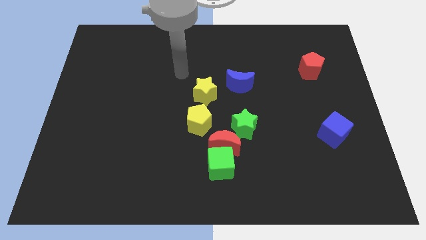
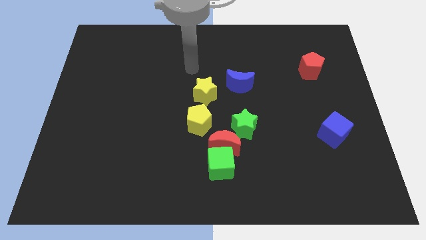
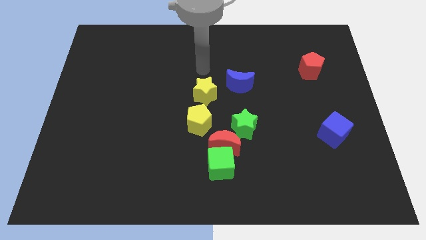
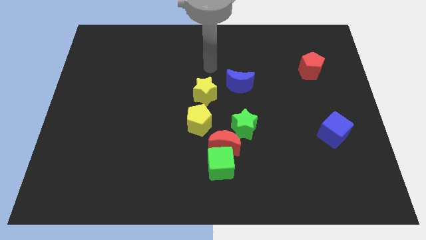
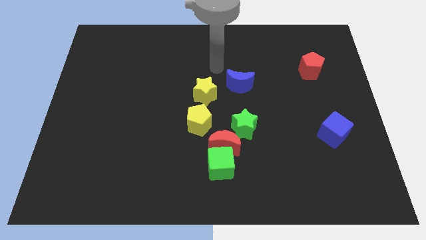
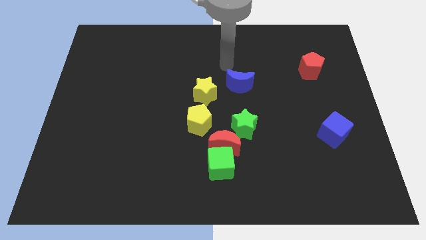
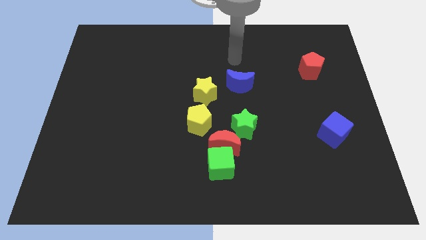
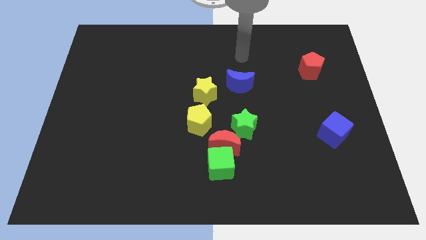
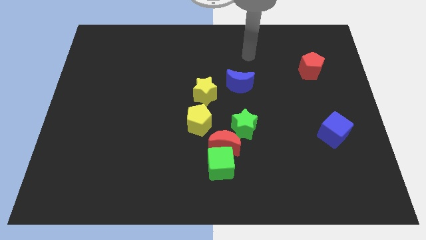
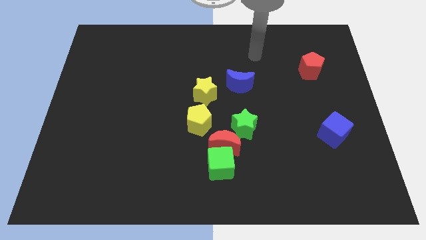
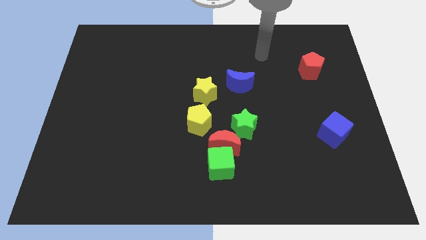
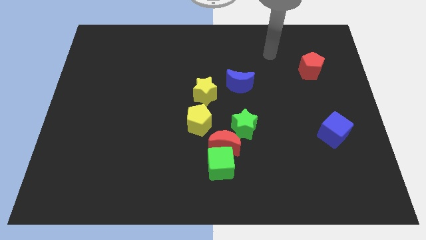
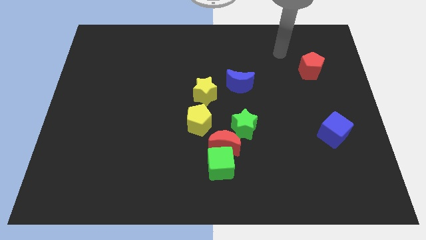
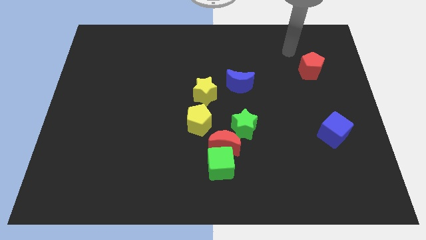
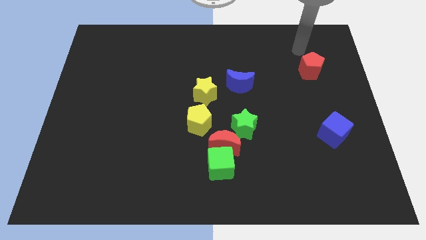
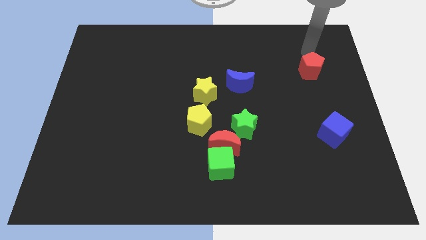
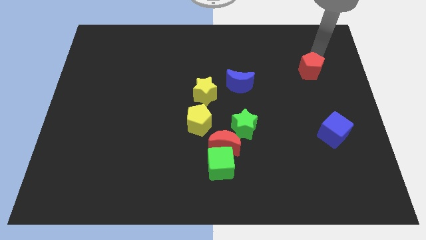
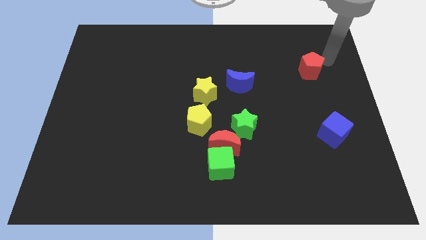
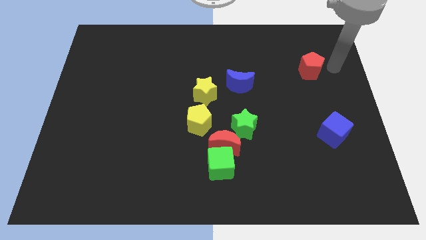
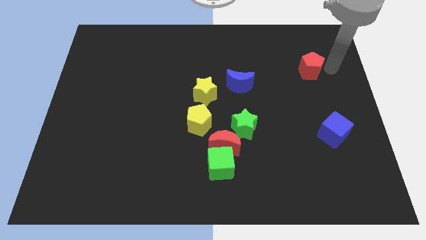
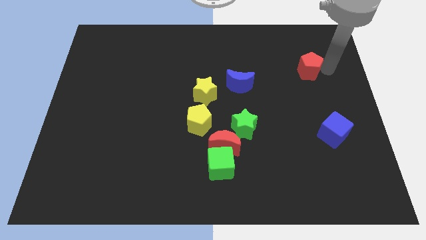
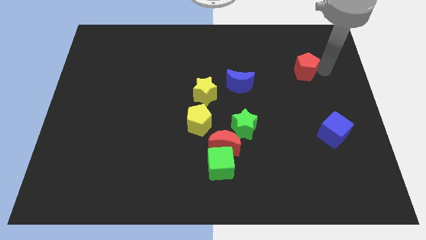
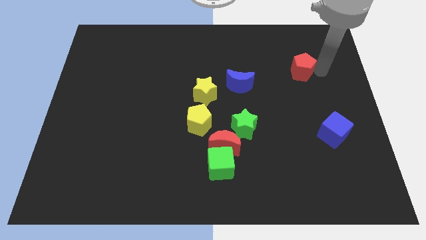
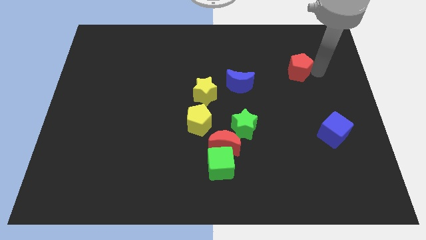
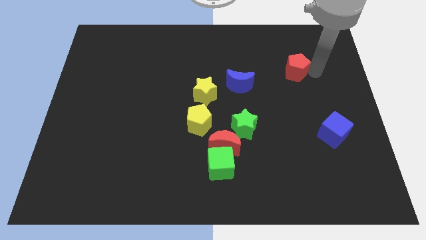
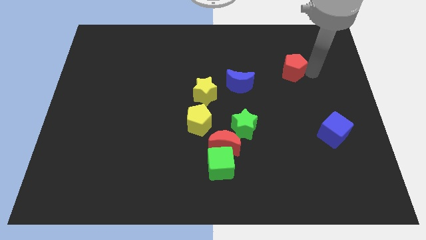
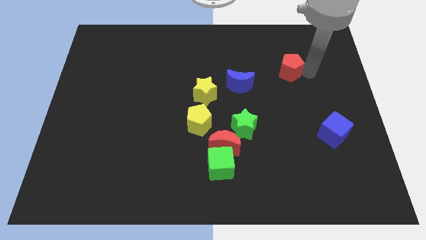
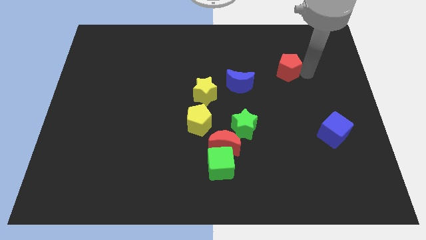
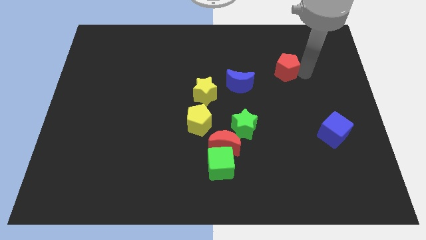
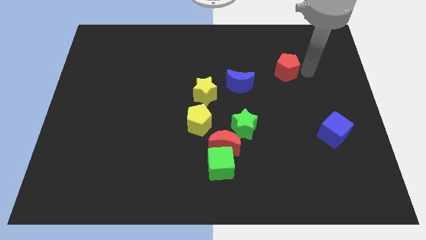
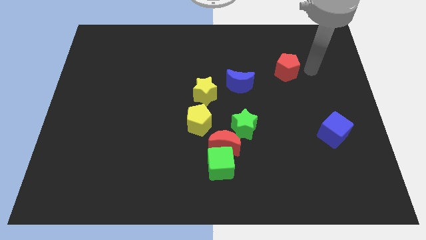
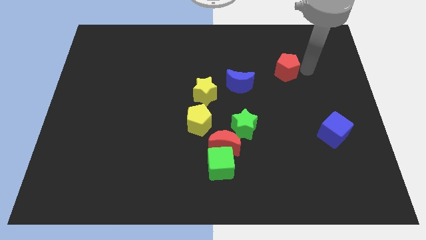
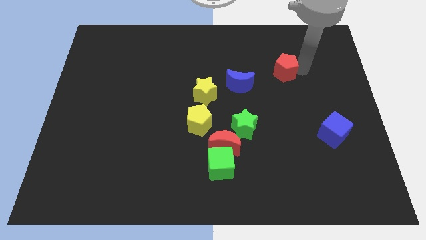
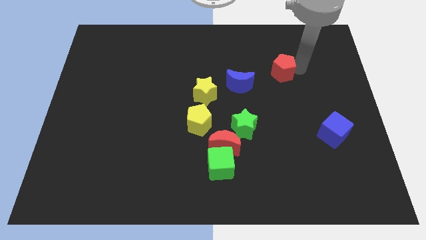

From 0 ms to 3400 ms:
slightly move the red pentagon left

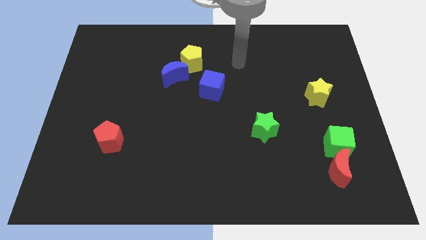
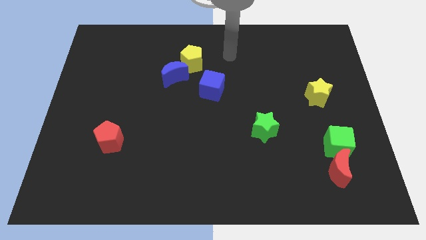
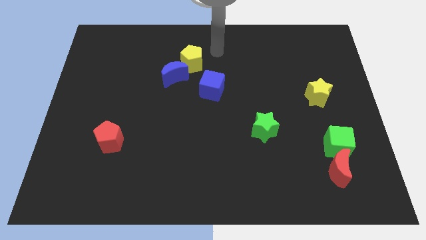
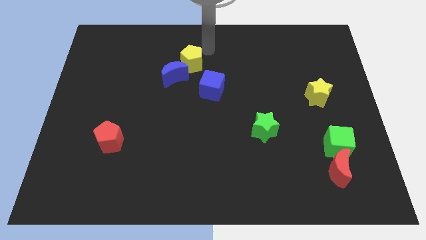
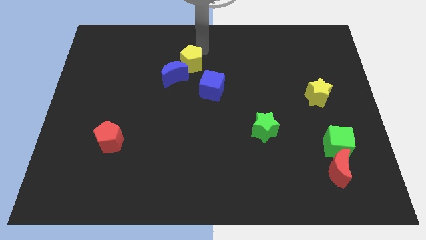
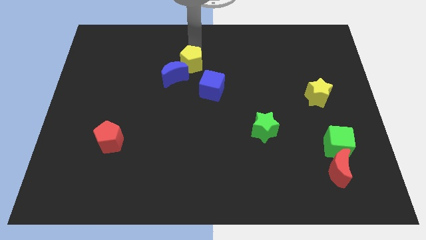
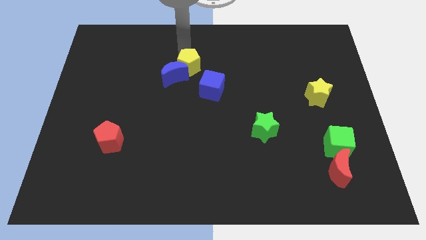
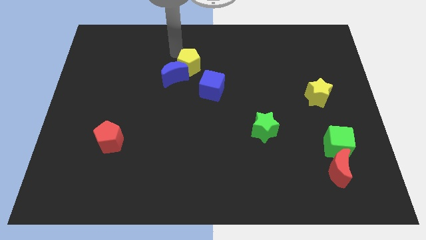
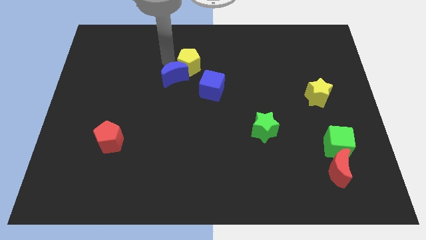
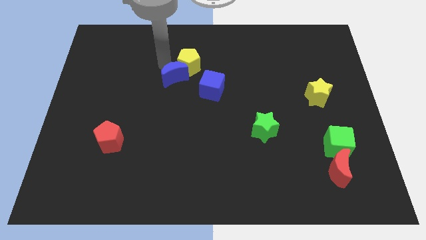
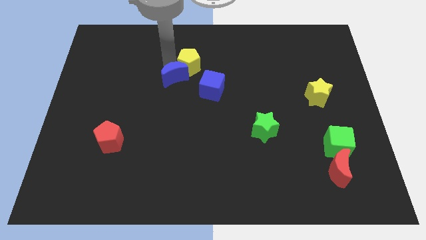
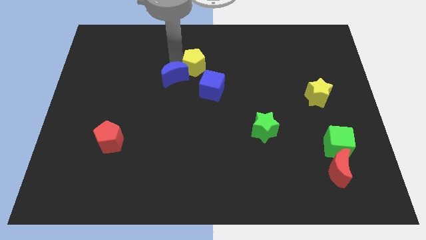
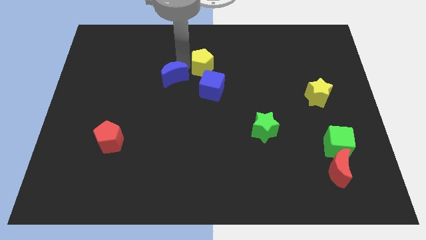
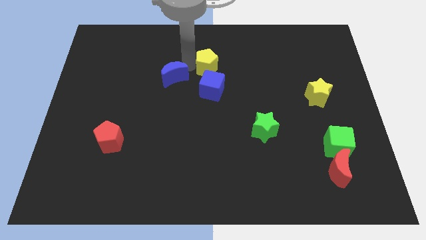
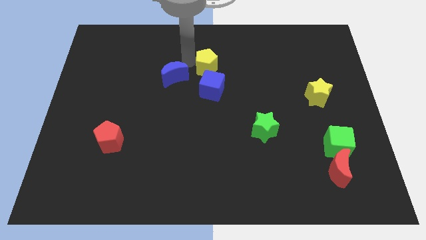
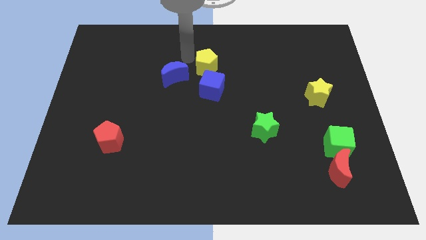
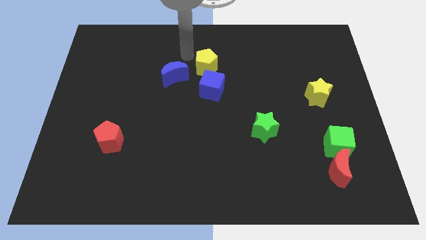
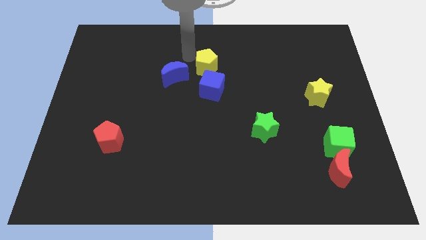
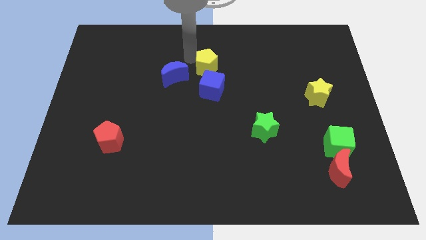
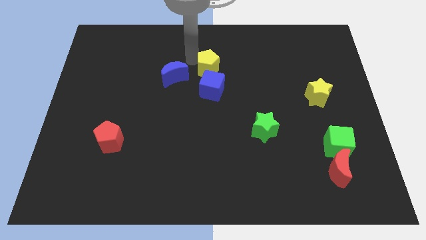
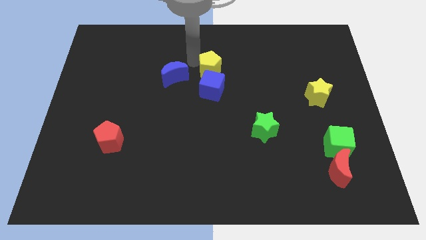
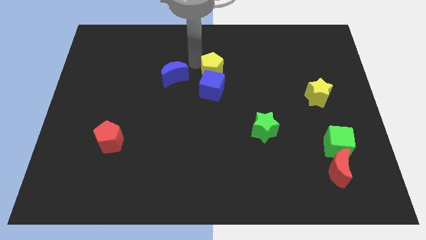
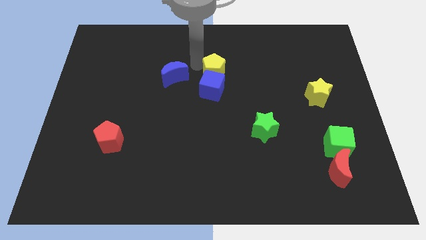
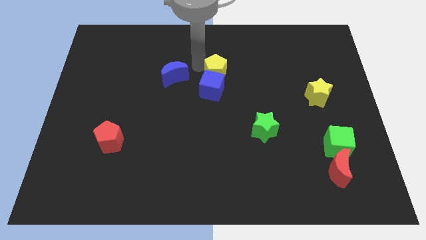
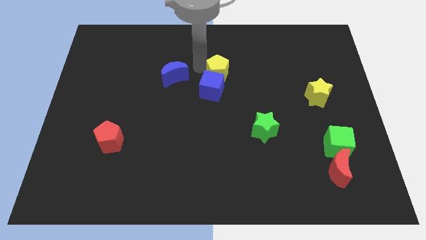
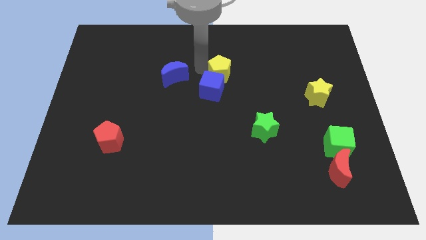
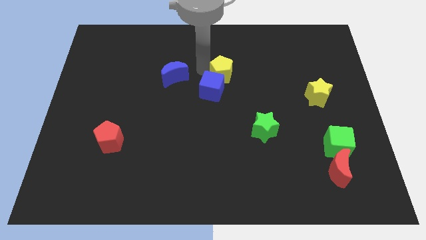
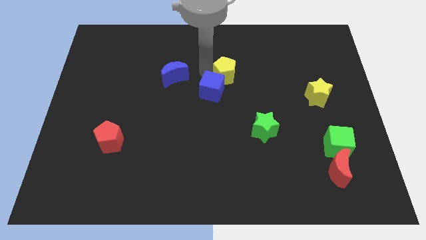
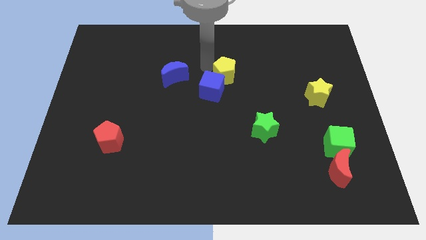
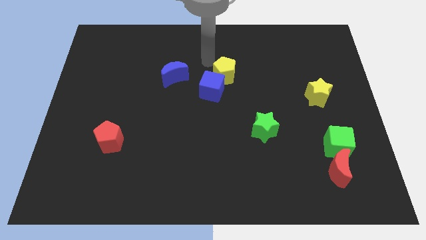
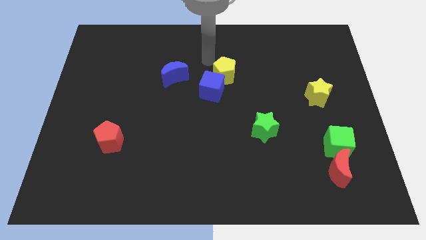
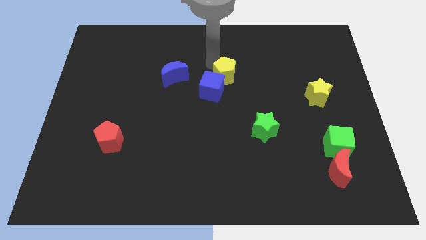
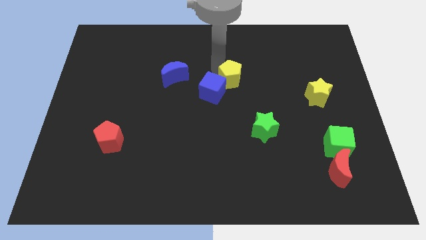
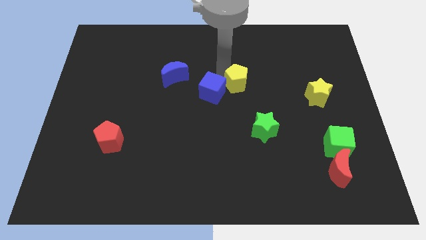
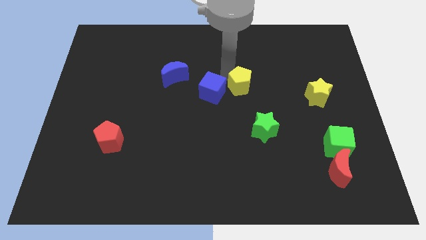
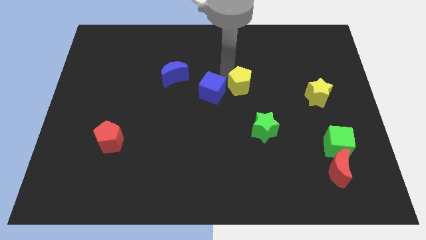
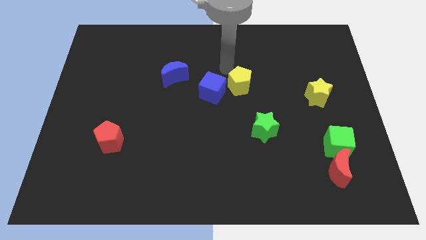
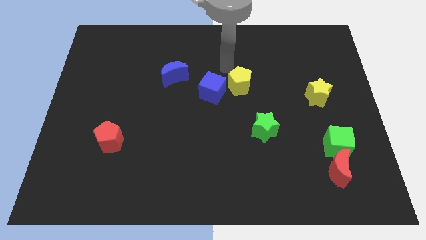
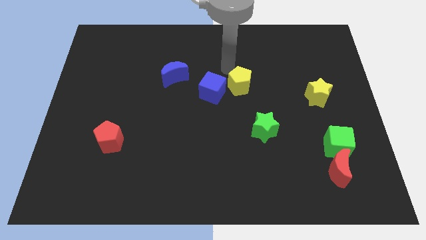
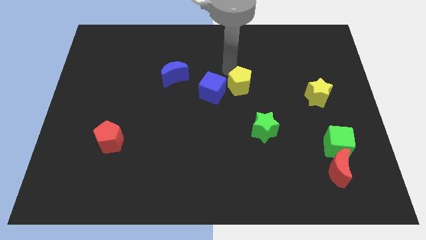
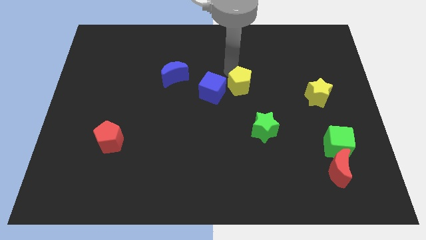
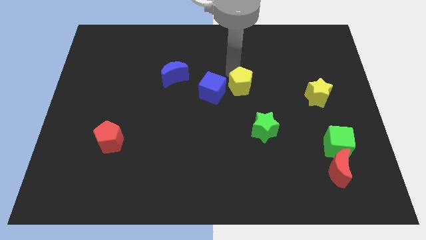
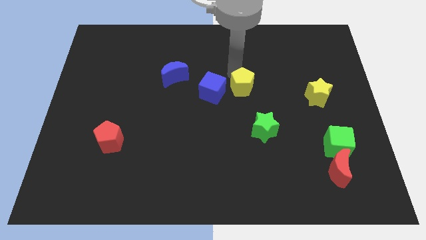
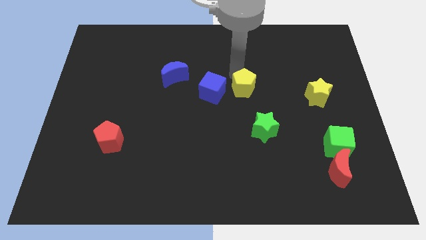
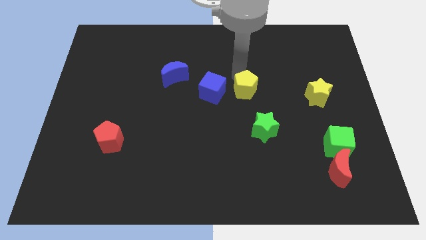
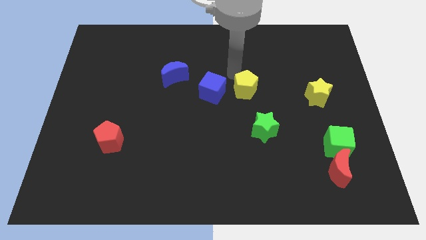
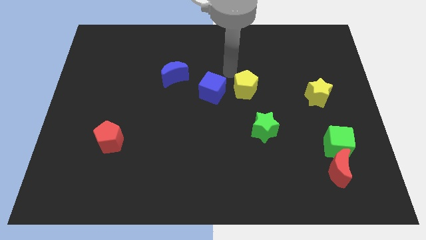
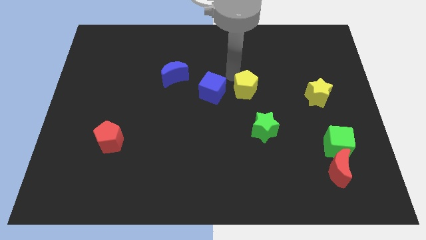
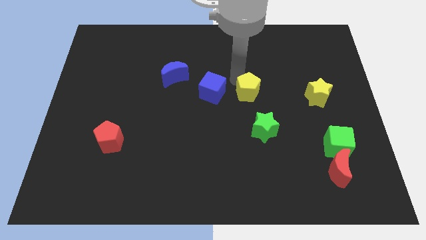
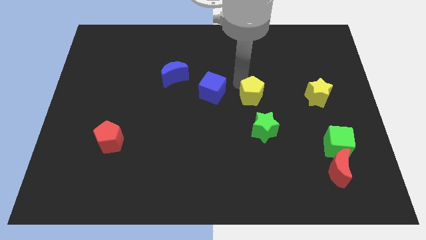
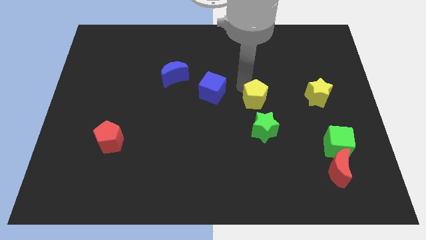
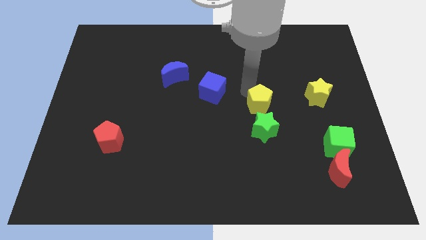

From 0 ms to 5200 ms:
slide the yellow pentagon diagonally downwards and right
